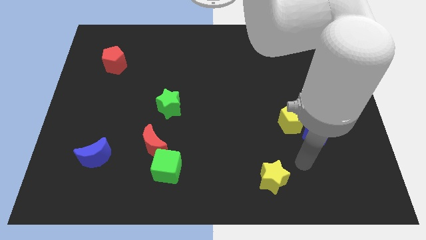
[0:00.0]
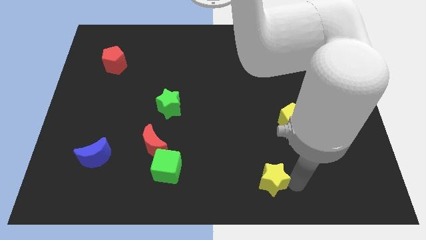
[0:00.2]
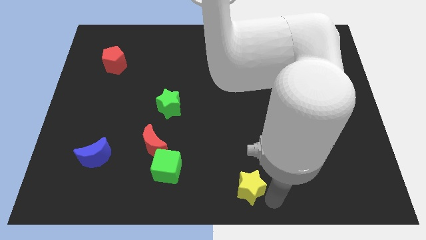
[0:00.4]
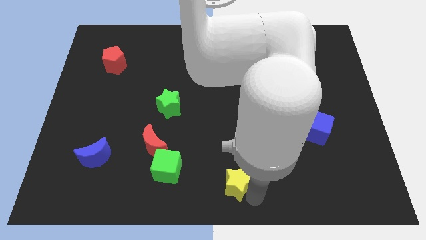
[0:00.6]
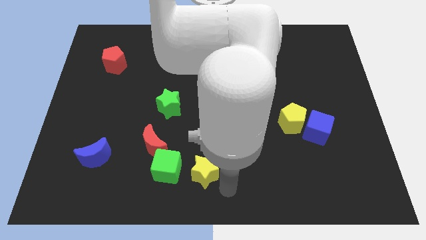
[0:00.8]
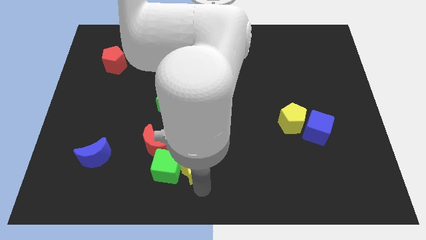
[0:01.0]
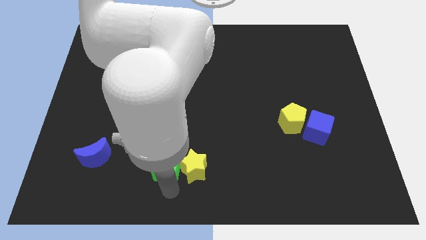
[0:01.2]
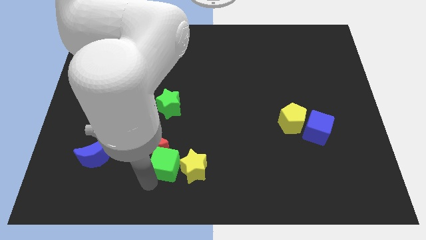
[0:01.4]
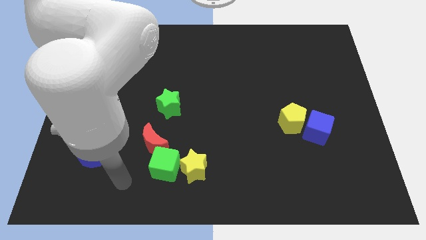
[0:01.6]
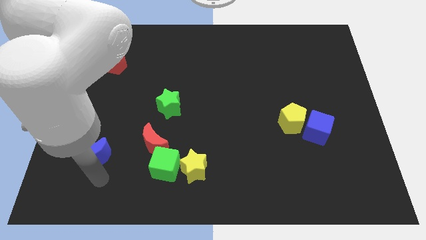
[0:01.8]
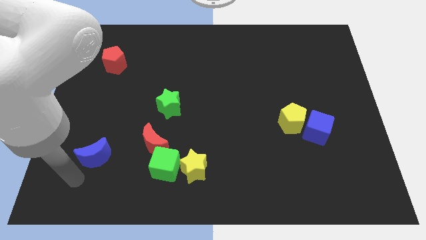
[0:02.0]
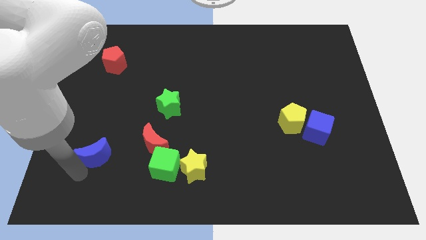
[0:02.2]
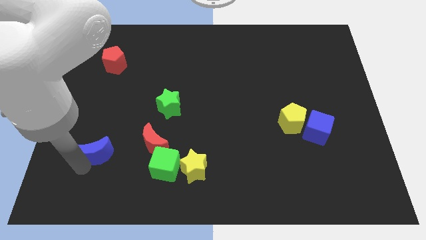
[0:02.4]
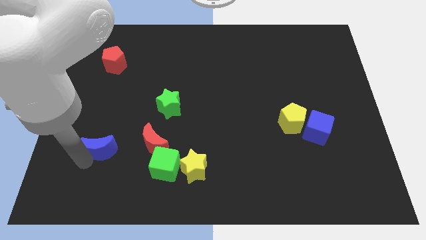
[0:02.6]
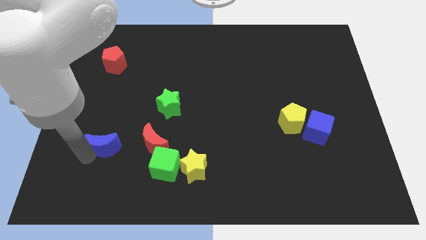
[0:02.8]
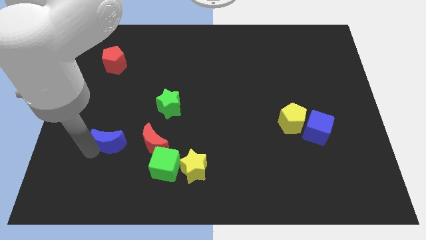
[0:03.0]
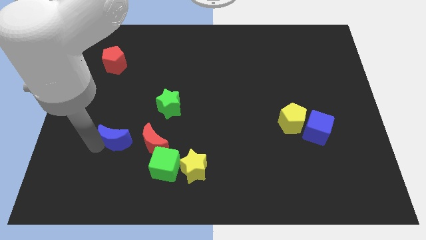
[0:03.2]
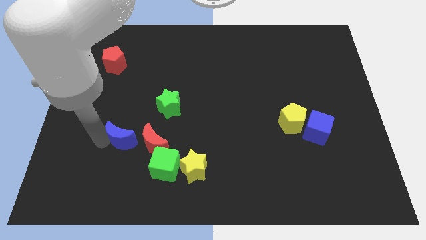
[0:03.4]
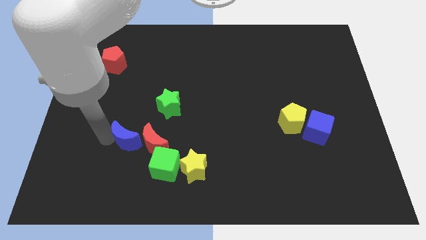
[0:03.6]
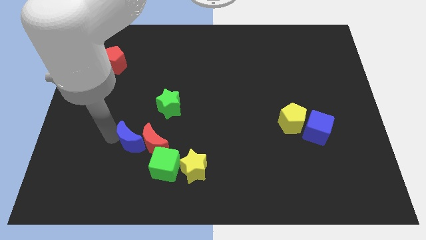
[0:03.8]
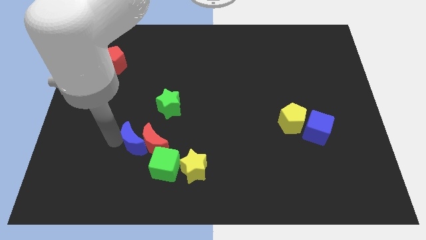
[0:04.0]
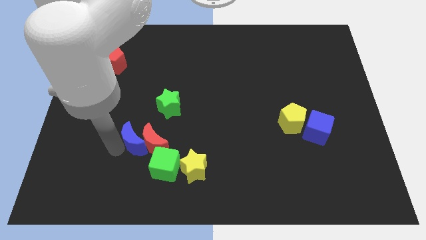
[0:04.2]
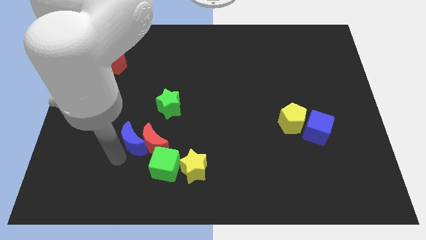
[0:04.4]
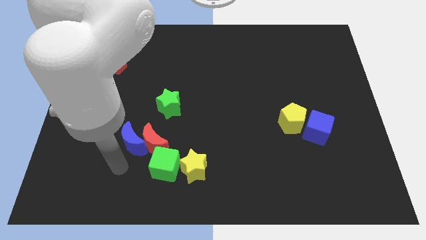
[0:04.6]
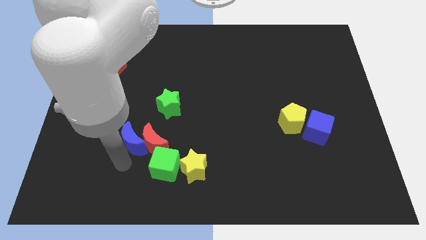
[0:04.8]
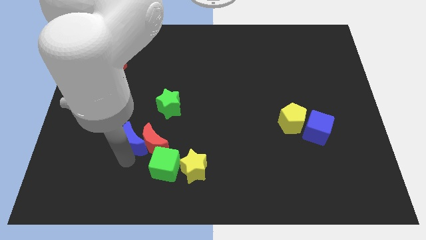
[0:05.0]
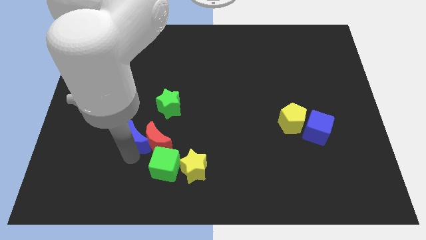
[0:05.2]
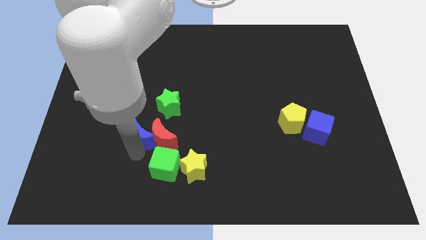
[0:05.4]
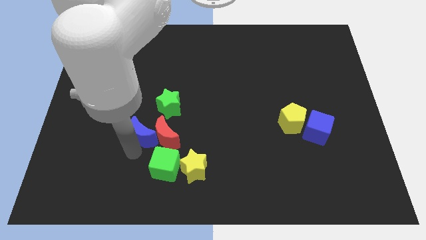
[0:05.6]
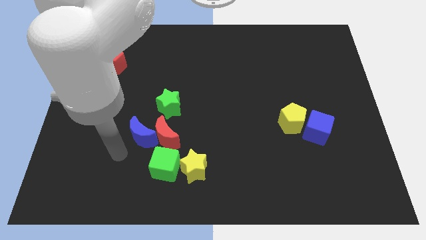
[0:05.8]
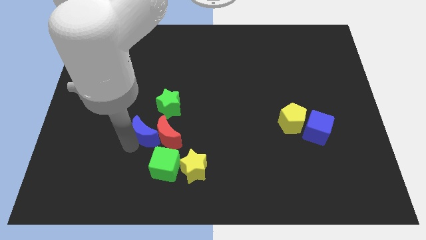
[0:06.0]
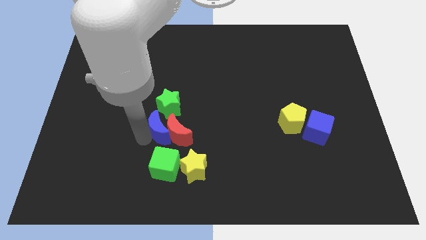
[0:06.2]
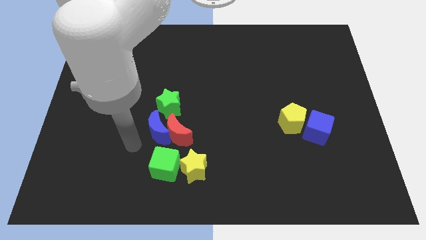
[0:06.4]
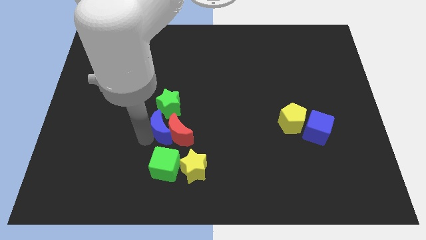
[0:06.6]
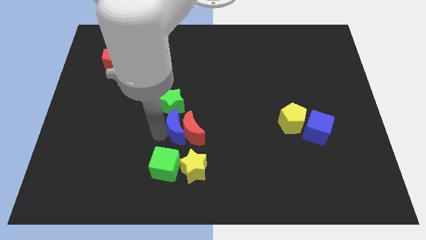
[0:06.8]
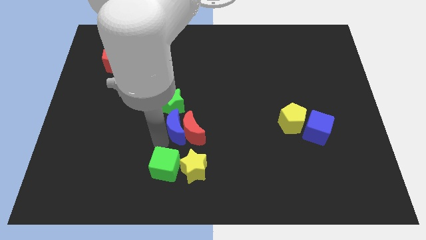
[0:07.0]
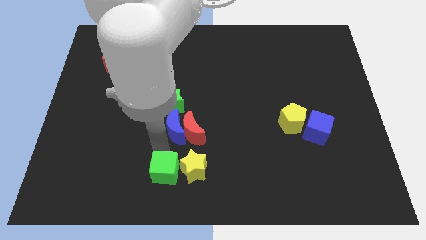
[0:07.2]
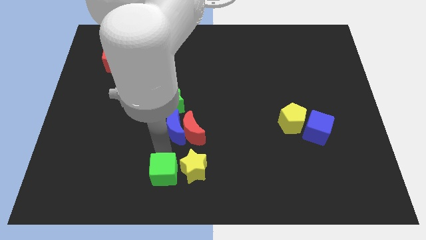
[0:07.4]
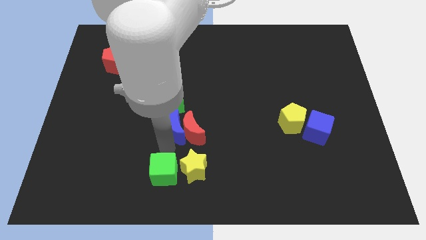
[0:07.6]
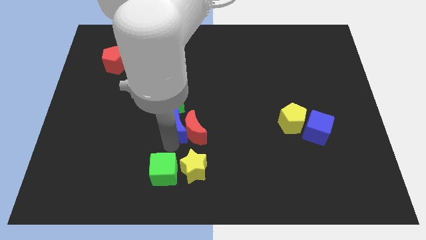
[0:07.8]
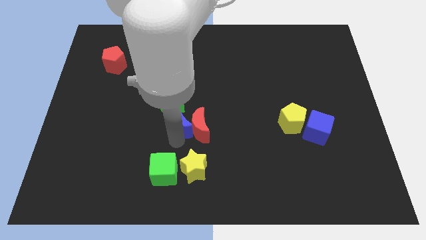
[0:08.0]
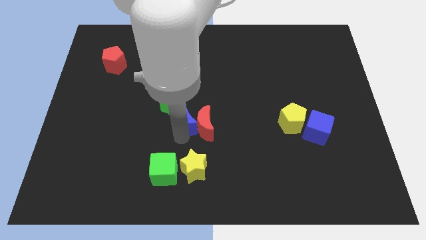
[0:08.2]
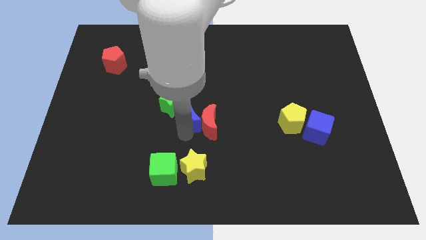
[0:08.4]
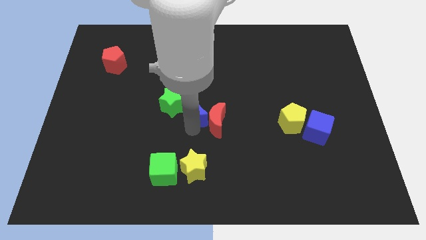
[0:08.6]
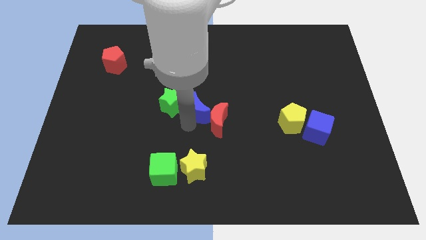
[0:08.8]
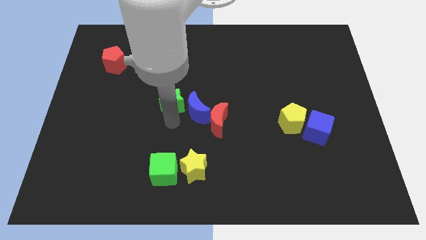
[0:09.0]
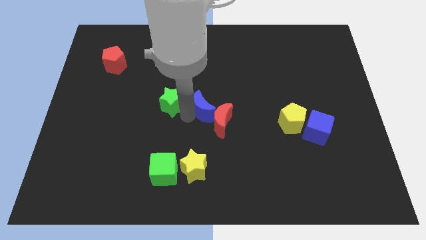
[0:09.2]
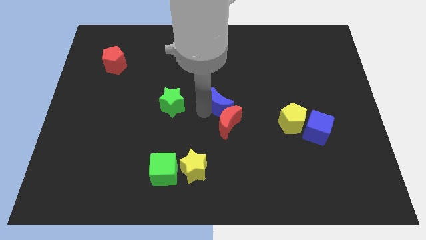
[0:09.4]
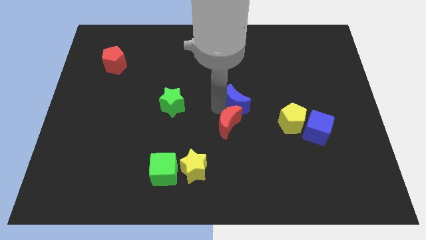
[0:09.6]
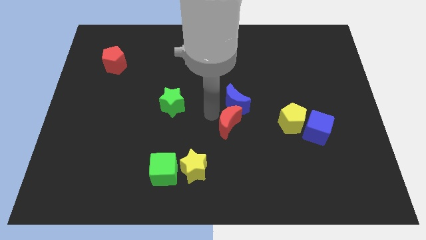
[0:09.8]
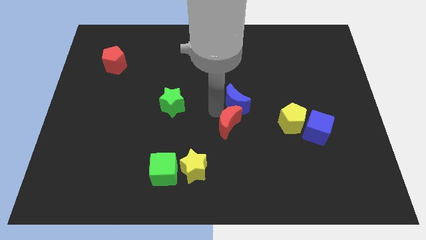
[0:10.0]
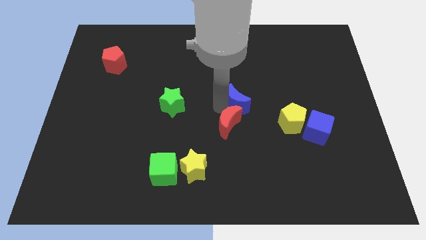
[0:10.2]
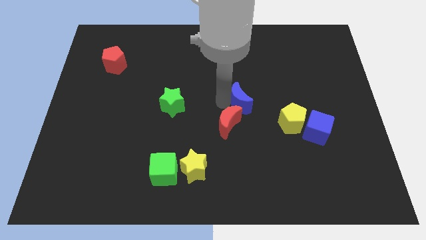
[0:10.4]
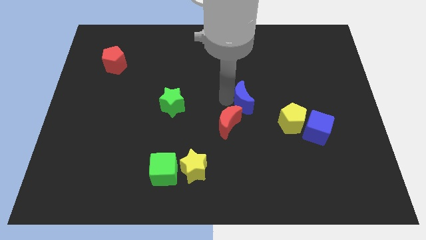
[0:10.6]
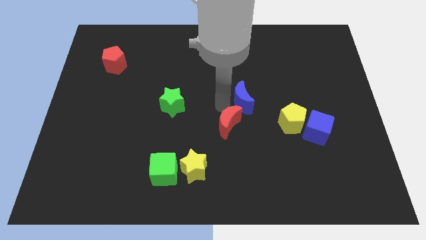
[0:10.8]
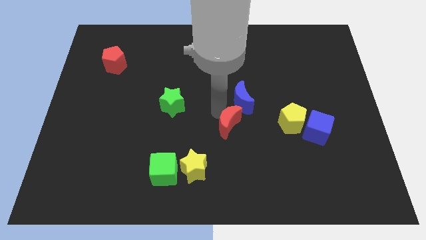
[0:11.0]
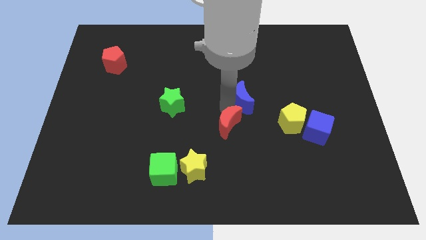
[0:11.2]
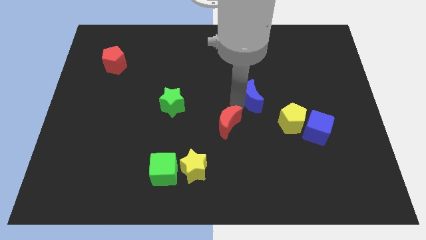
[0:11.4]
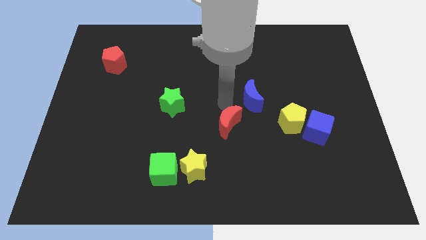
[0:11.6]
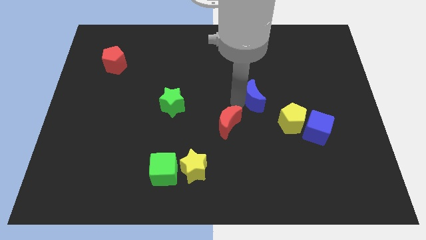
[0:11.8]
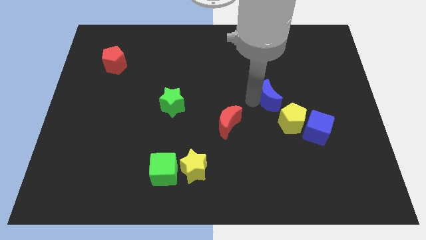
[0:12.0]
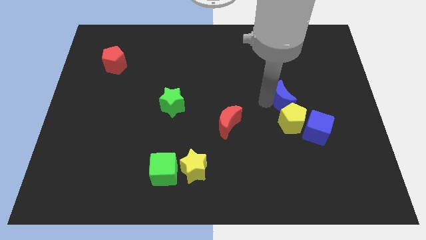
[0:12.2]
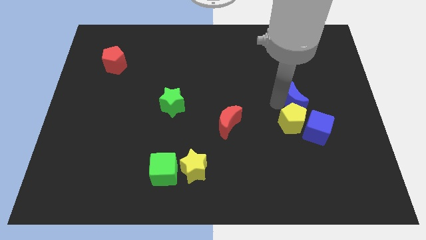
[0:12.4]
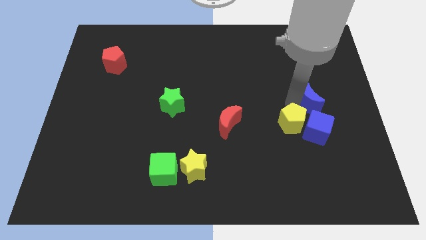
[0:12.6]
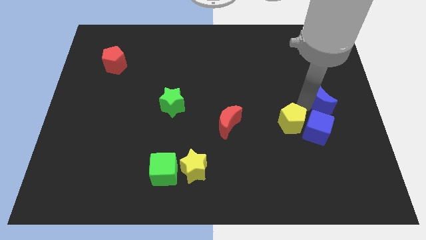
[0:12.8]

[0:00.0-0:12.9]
move the blue moon to the right side of the board
